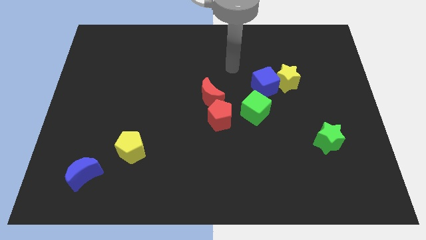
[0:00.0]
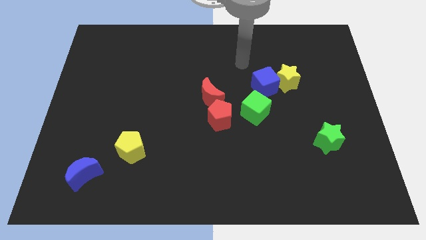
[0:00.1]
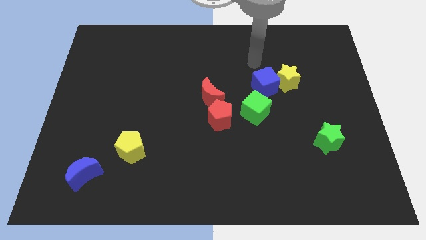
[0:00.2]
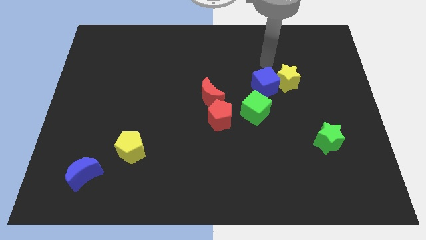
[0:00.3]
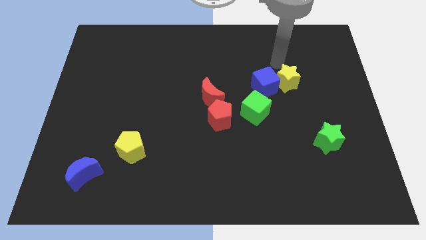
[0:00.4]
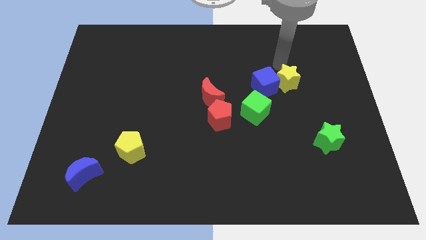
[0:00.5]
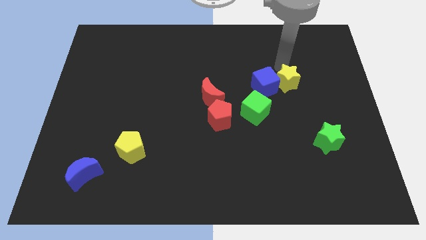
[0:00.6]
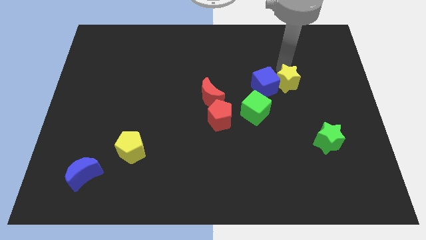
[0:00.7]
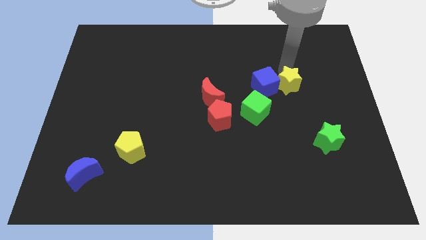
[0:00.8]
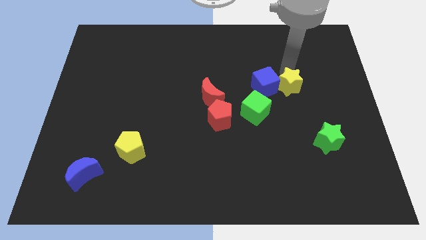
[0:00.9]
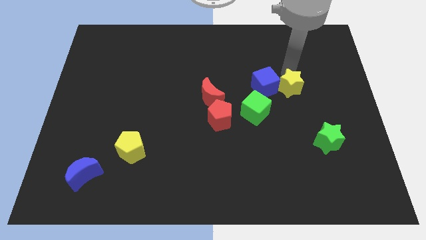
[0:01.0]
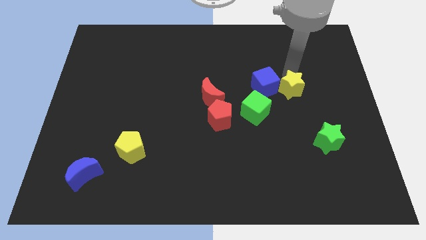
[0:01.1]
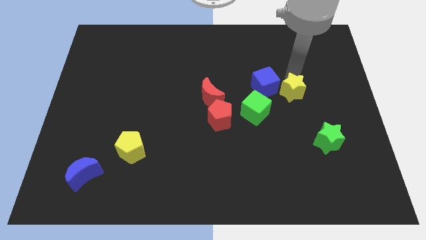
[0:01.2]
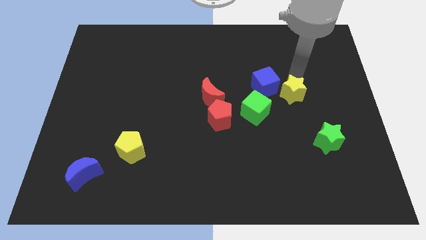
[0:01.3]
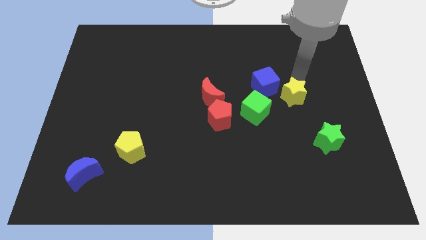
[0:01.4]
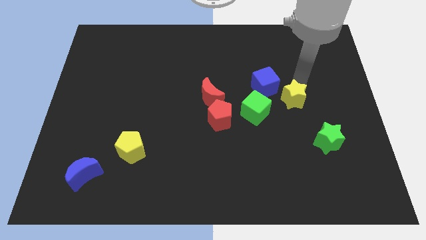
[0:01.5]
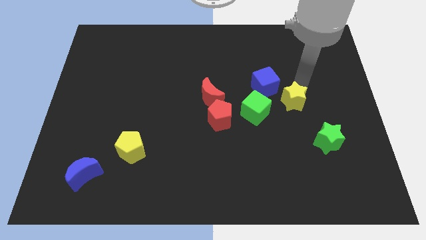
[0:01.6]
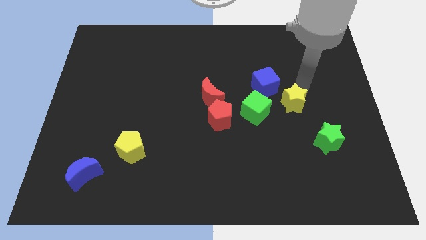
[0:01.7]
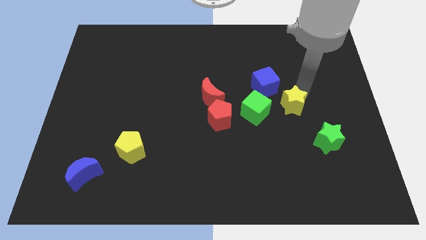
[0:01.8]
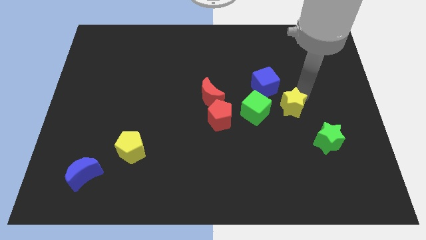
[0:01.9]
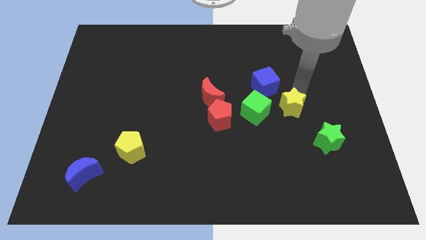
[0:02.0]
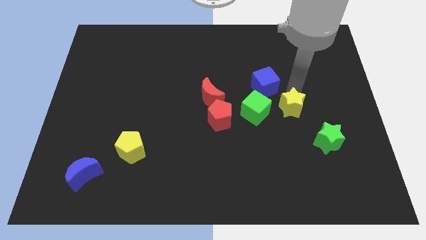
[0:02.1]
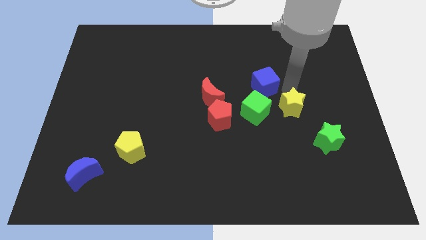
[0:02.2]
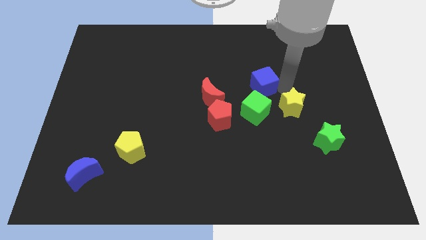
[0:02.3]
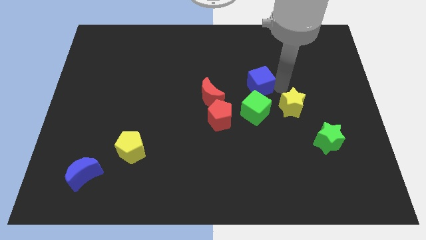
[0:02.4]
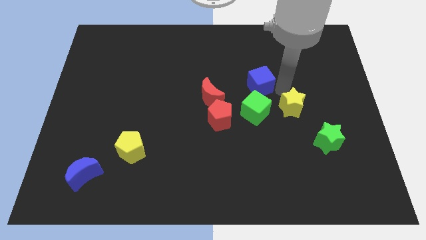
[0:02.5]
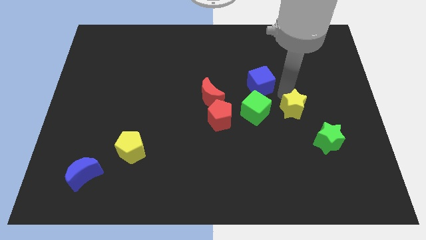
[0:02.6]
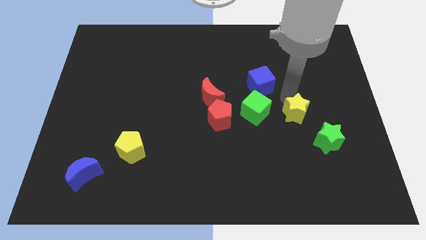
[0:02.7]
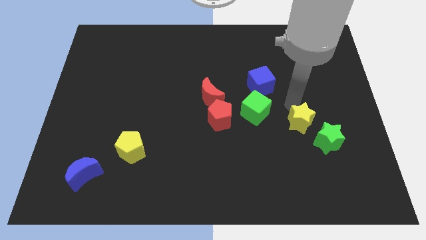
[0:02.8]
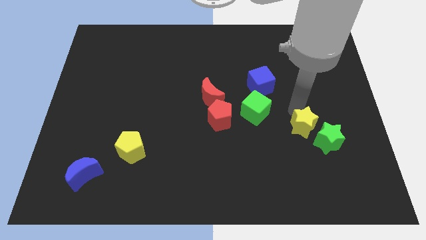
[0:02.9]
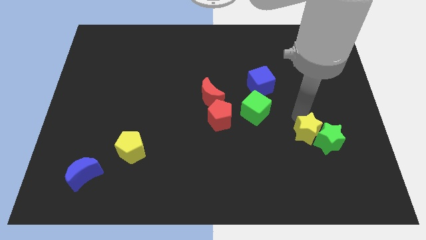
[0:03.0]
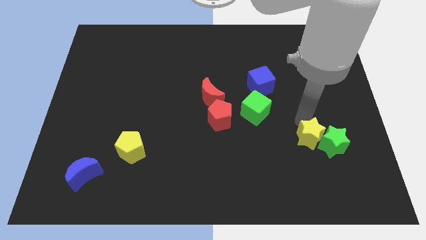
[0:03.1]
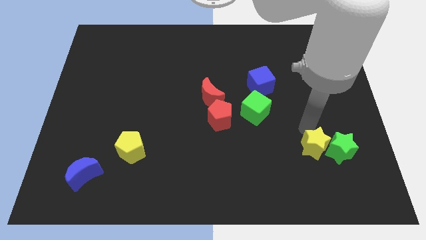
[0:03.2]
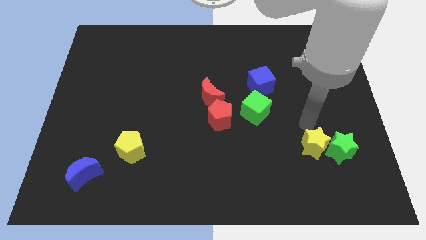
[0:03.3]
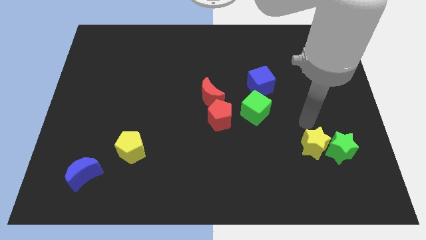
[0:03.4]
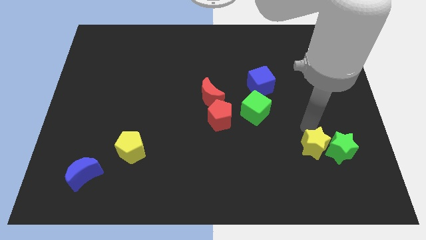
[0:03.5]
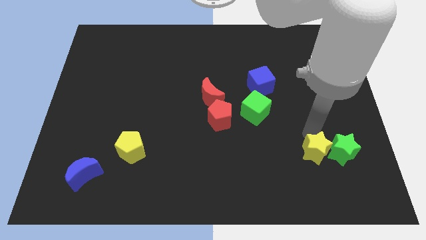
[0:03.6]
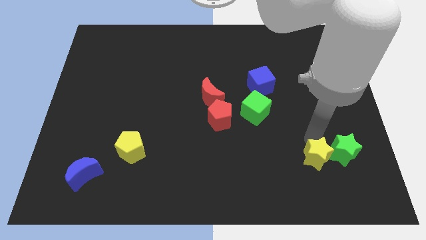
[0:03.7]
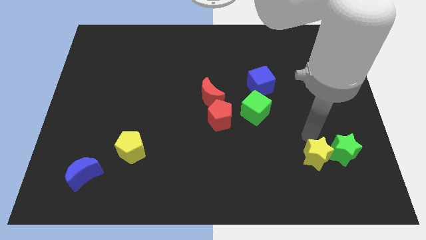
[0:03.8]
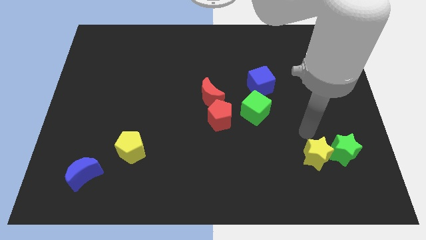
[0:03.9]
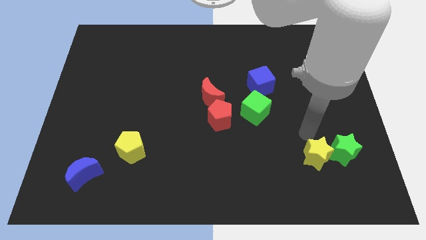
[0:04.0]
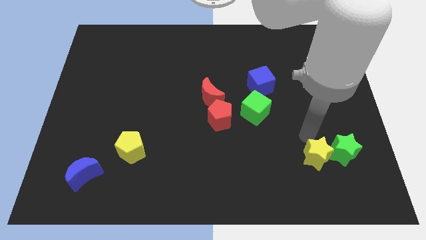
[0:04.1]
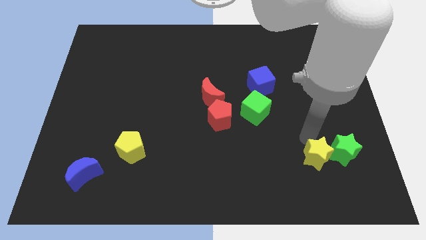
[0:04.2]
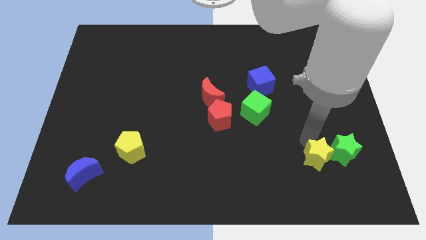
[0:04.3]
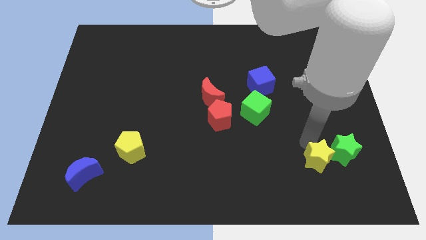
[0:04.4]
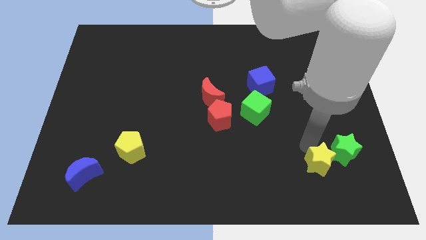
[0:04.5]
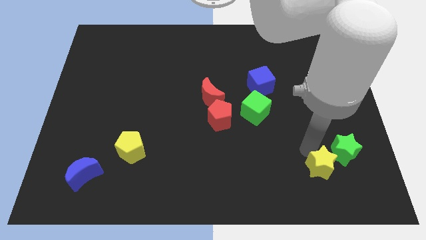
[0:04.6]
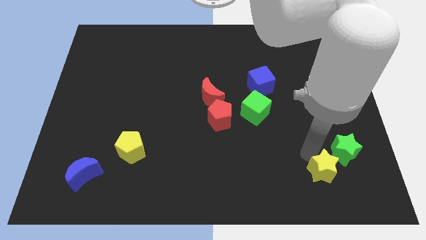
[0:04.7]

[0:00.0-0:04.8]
move the yellow star below the green star

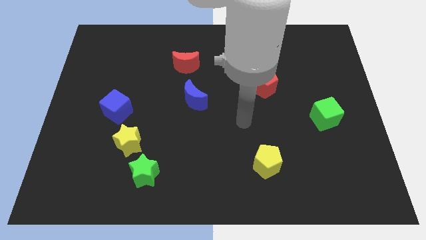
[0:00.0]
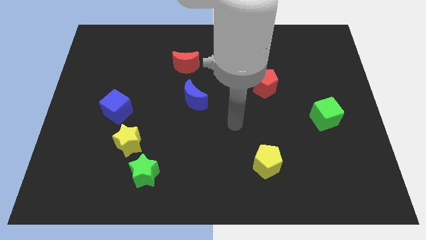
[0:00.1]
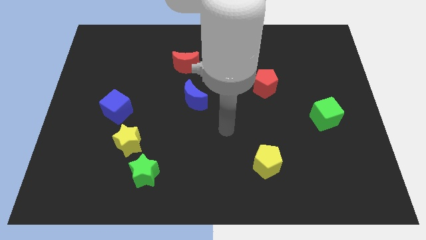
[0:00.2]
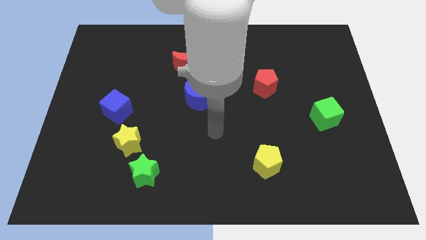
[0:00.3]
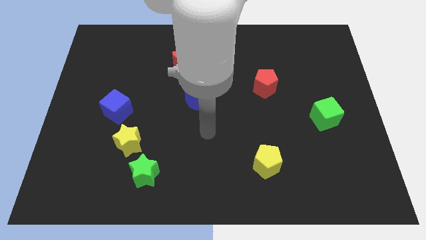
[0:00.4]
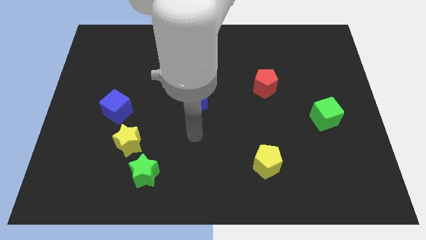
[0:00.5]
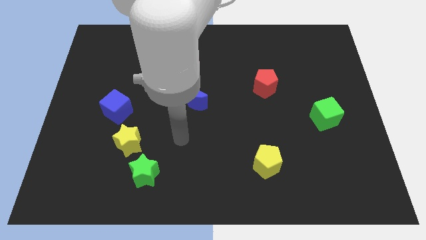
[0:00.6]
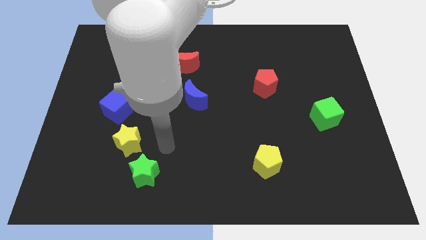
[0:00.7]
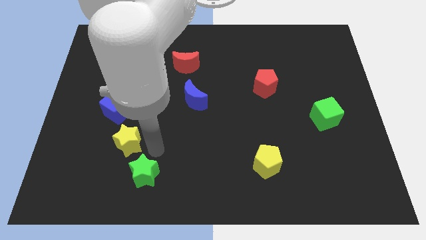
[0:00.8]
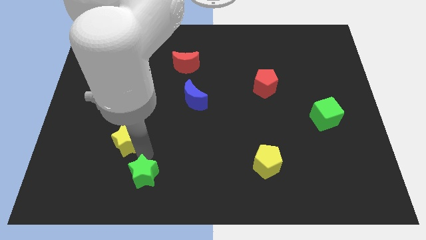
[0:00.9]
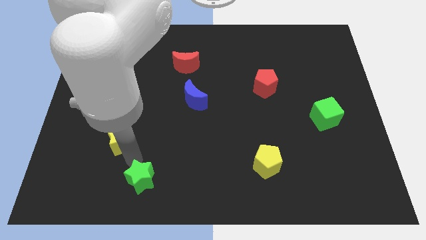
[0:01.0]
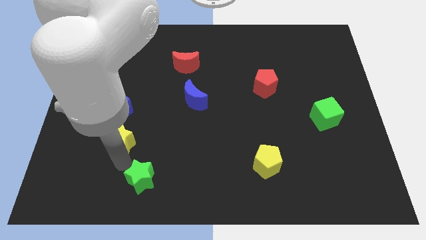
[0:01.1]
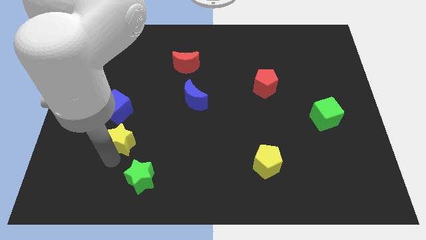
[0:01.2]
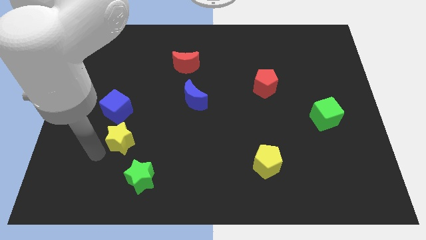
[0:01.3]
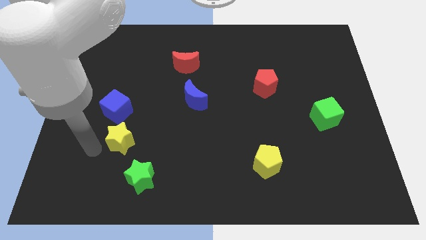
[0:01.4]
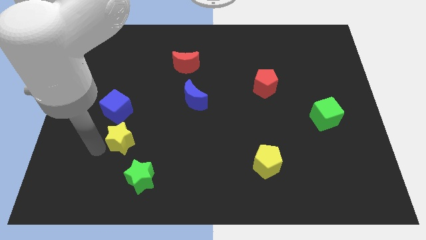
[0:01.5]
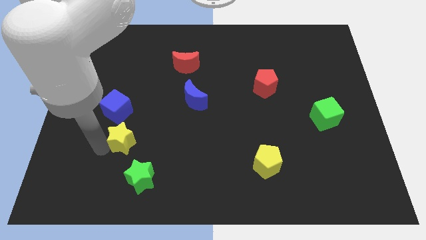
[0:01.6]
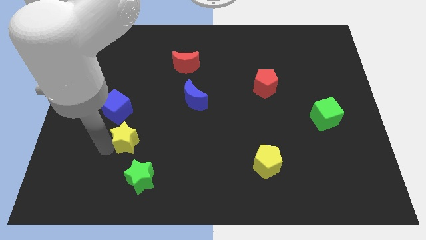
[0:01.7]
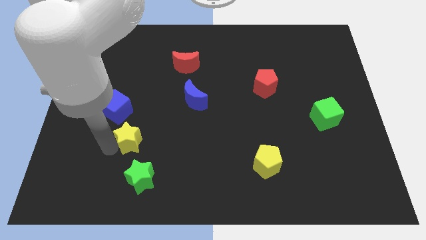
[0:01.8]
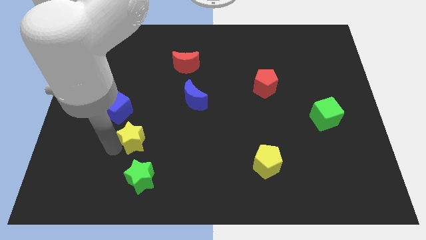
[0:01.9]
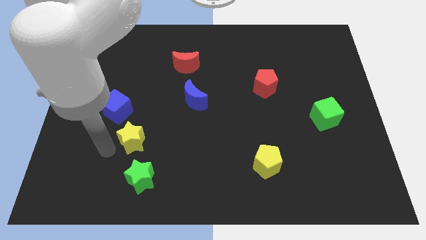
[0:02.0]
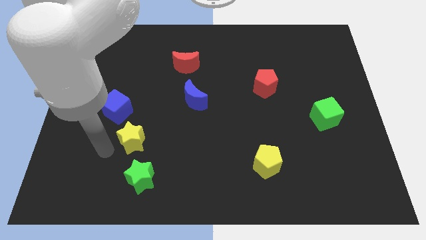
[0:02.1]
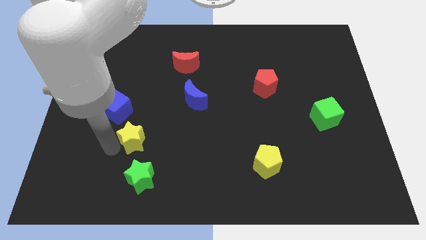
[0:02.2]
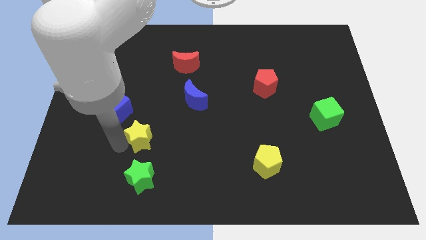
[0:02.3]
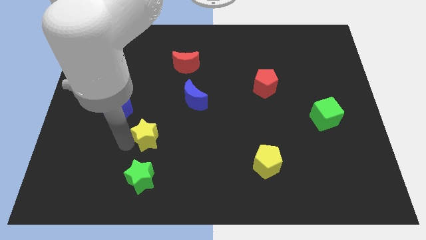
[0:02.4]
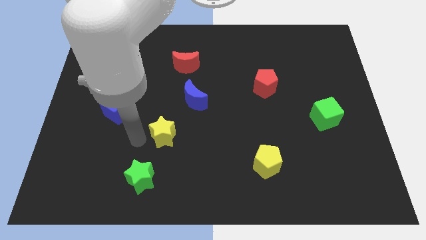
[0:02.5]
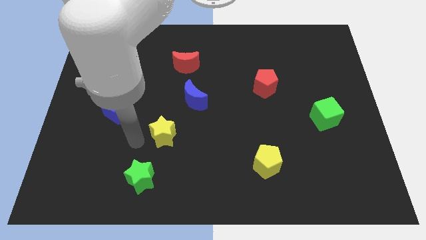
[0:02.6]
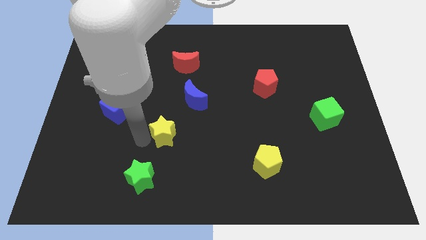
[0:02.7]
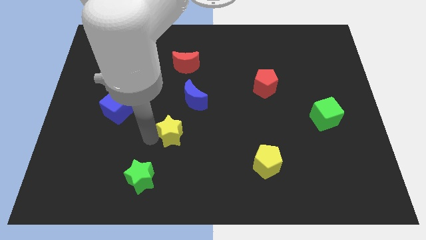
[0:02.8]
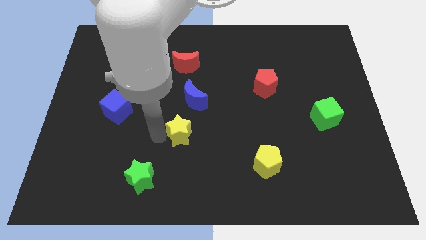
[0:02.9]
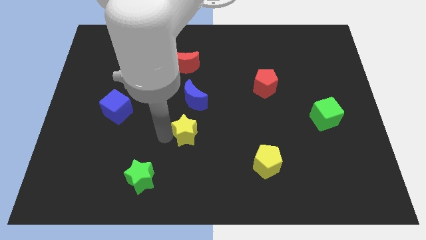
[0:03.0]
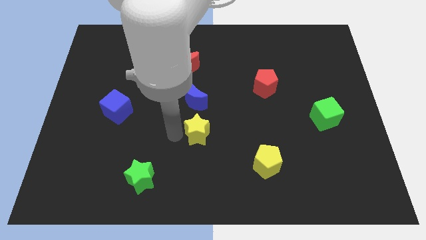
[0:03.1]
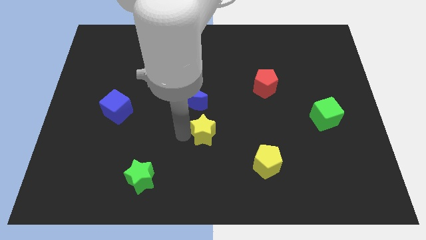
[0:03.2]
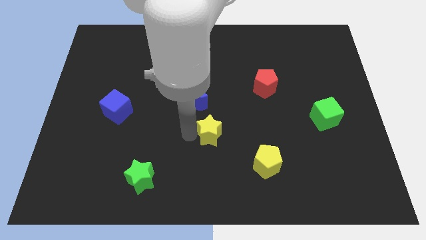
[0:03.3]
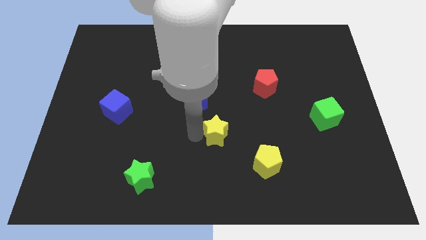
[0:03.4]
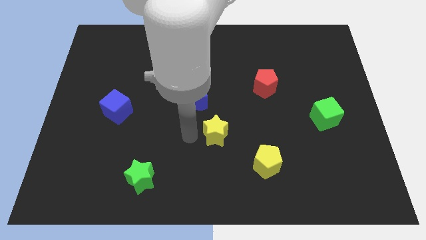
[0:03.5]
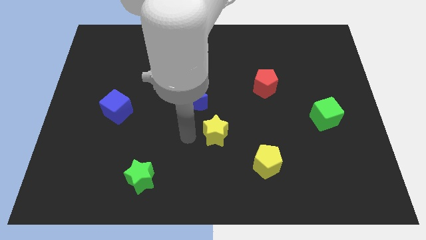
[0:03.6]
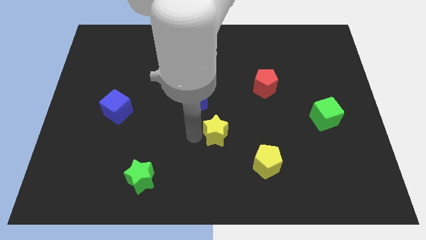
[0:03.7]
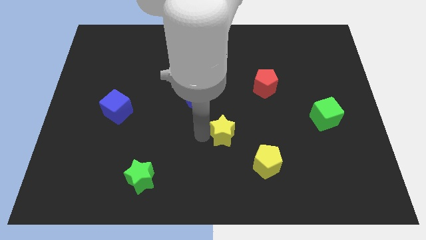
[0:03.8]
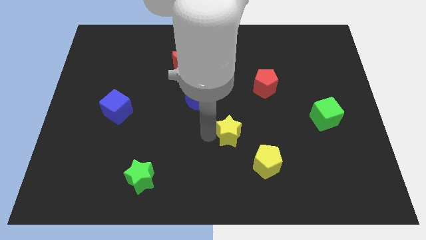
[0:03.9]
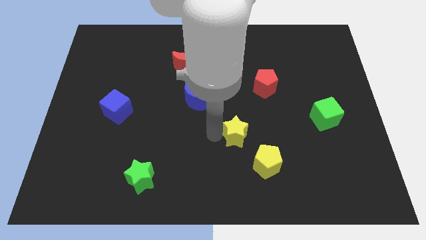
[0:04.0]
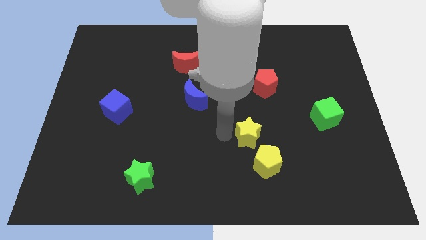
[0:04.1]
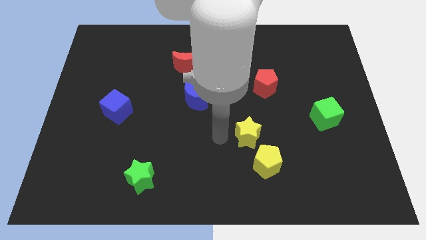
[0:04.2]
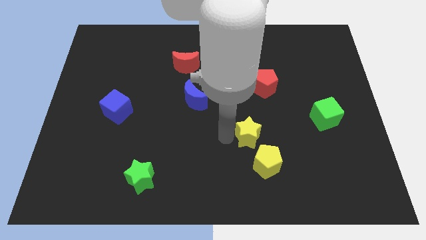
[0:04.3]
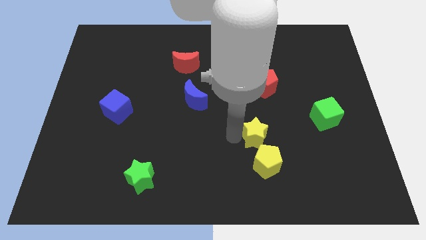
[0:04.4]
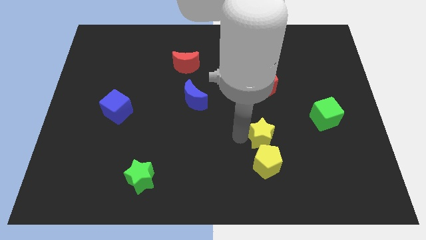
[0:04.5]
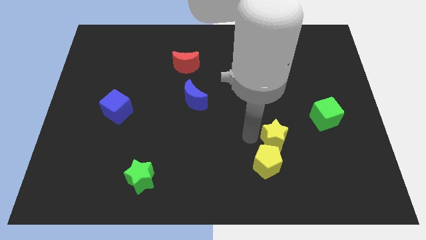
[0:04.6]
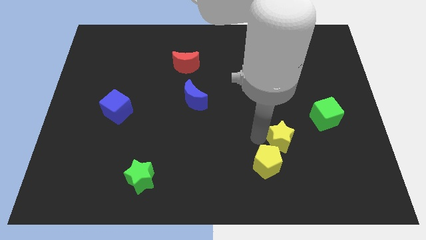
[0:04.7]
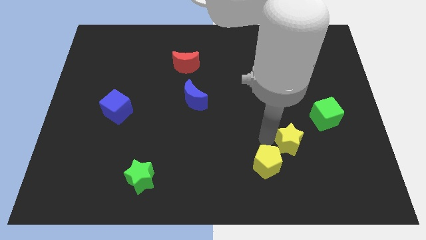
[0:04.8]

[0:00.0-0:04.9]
move the yellow star to the bottom left of the green cube
